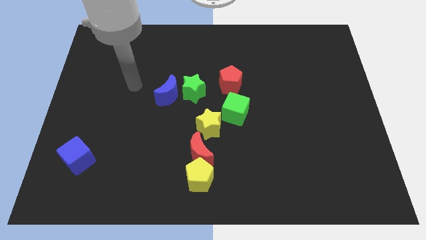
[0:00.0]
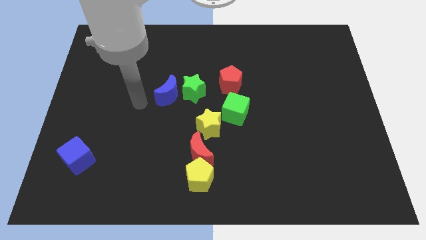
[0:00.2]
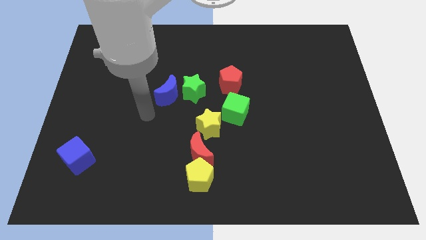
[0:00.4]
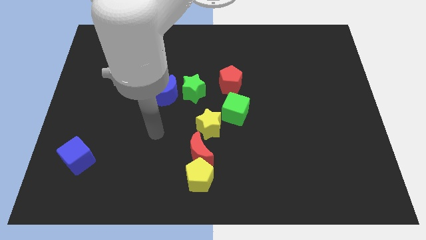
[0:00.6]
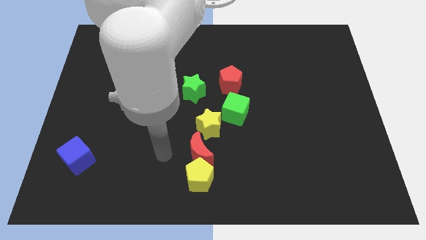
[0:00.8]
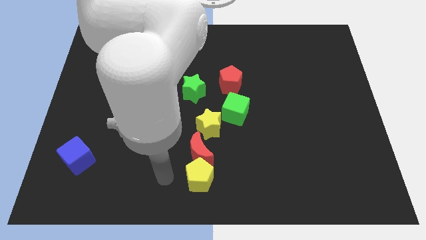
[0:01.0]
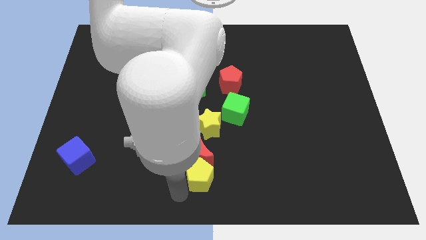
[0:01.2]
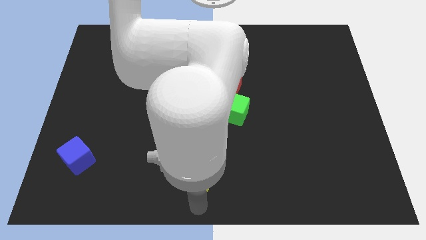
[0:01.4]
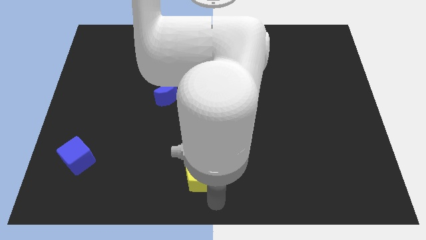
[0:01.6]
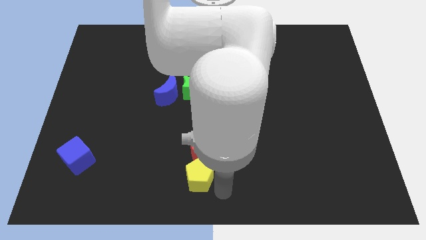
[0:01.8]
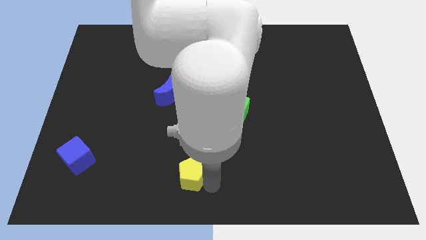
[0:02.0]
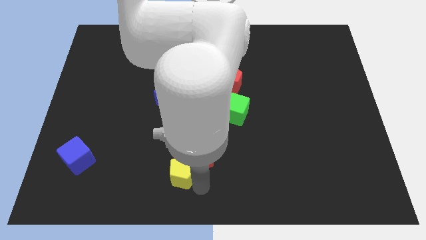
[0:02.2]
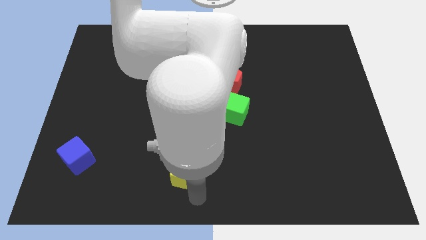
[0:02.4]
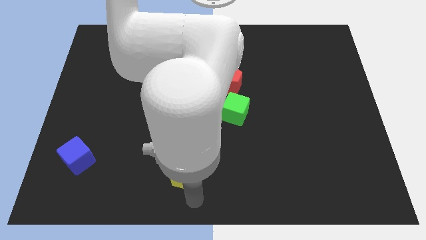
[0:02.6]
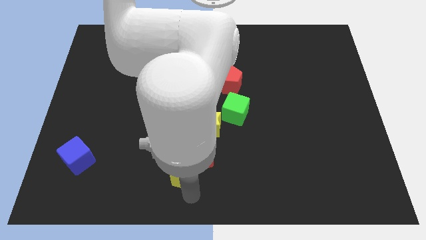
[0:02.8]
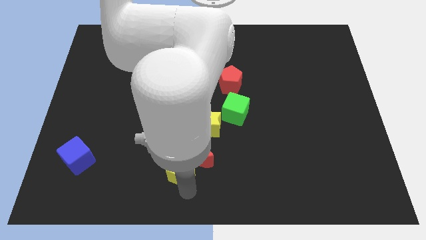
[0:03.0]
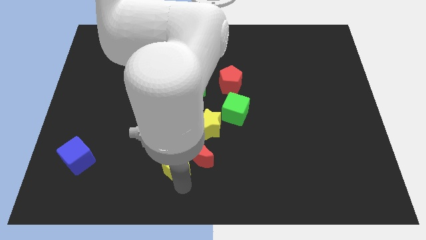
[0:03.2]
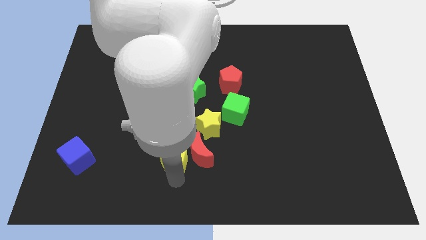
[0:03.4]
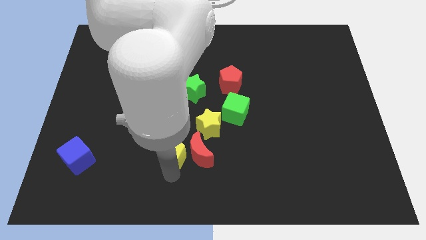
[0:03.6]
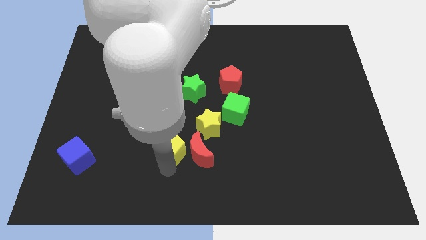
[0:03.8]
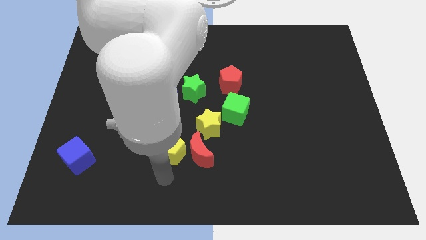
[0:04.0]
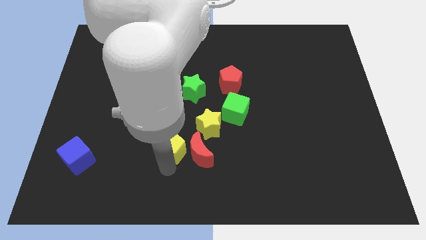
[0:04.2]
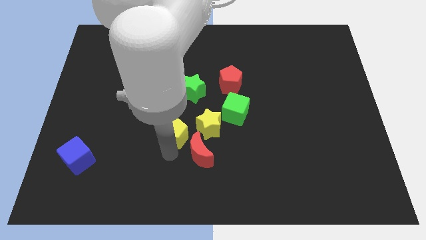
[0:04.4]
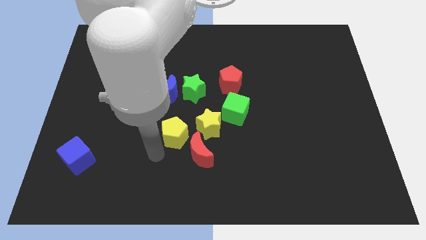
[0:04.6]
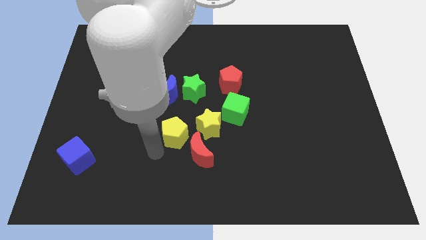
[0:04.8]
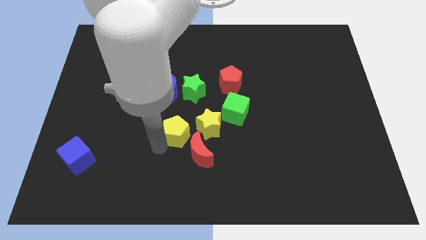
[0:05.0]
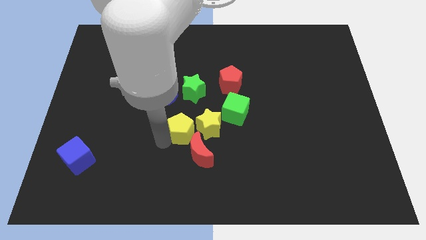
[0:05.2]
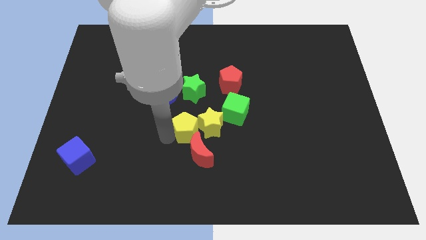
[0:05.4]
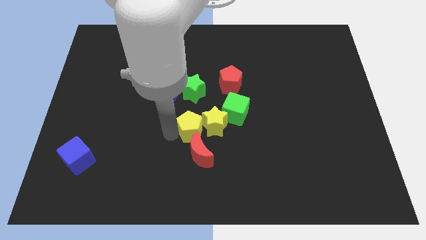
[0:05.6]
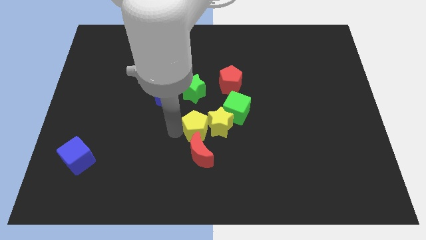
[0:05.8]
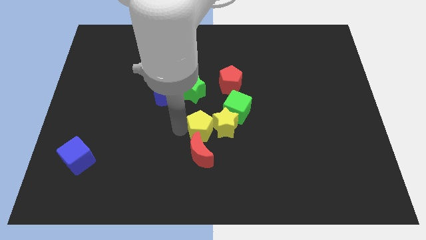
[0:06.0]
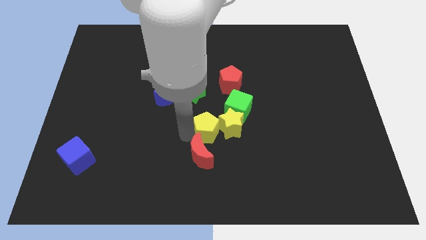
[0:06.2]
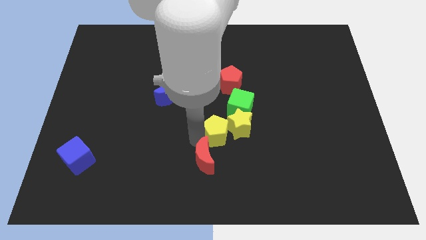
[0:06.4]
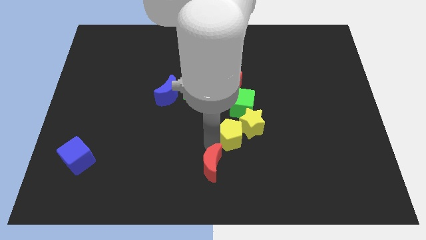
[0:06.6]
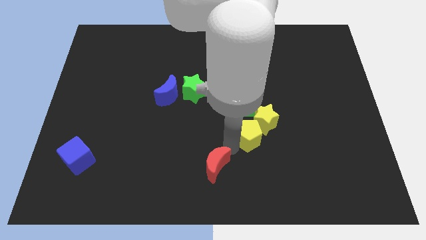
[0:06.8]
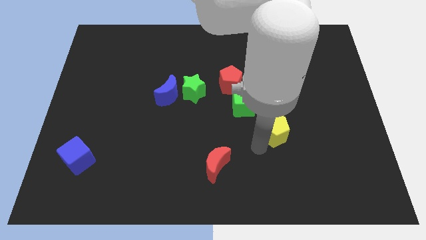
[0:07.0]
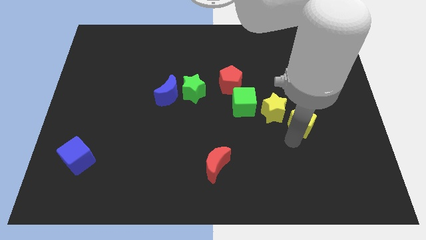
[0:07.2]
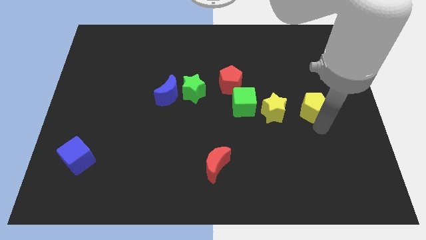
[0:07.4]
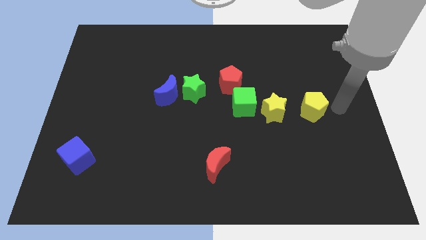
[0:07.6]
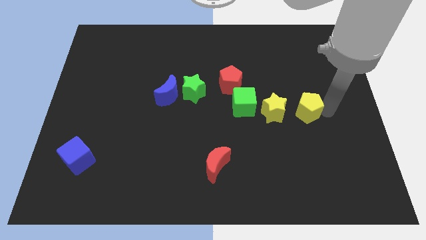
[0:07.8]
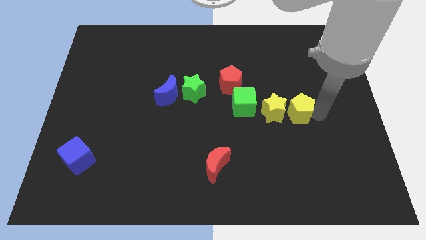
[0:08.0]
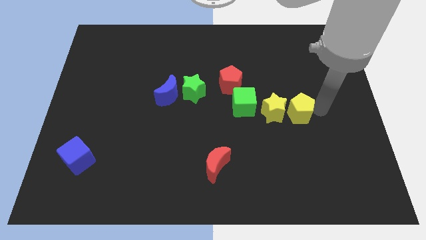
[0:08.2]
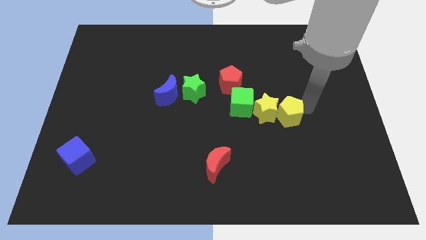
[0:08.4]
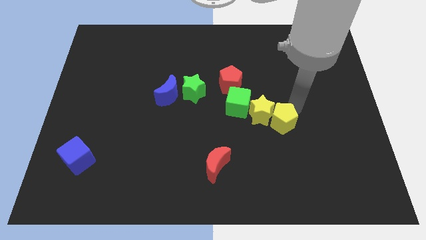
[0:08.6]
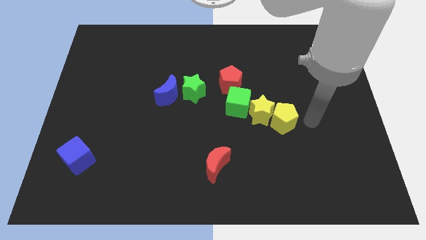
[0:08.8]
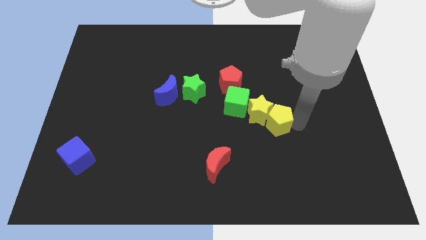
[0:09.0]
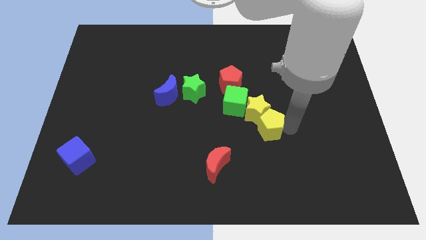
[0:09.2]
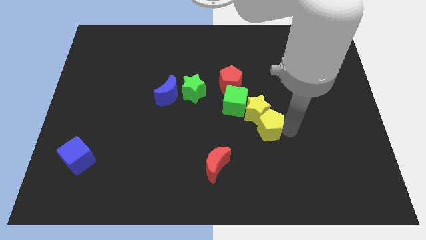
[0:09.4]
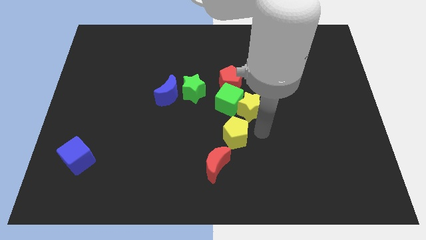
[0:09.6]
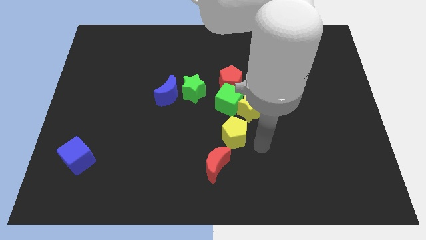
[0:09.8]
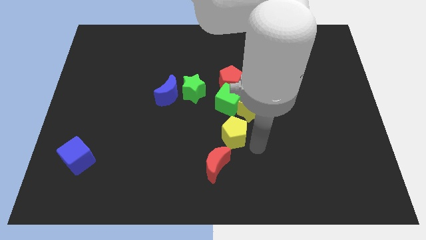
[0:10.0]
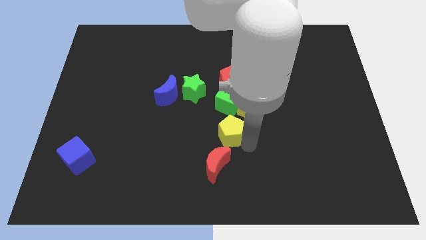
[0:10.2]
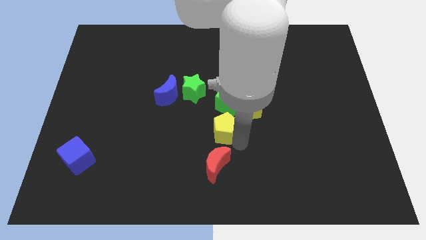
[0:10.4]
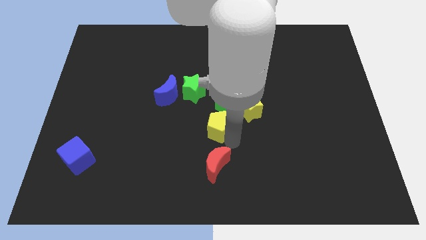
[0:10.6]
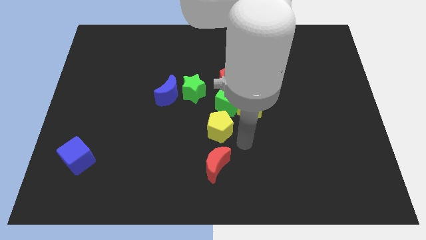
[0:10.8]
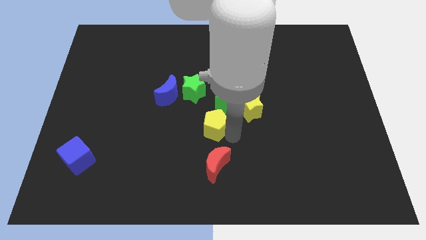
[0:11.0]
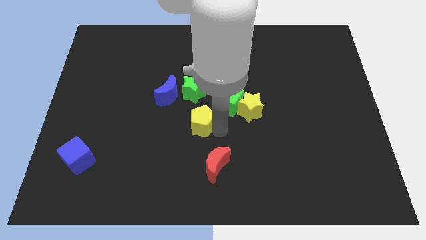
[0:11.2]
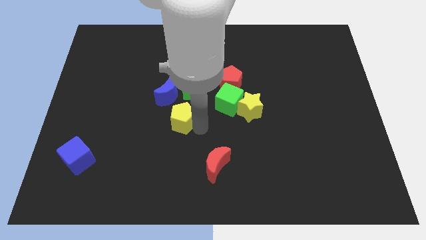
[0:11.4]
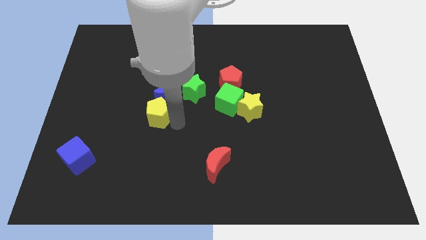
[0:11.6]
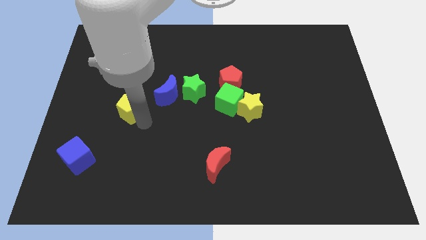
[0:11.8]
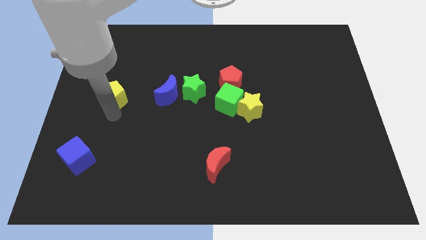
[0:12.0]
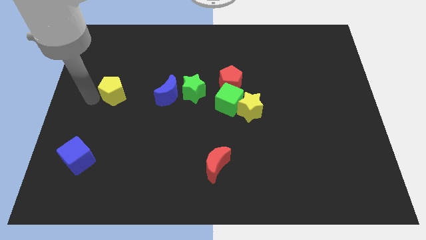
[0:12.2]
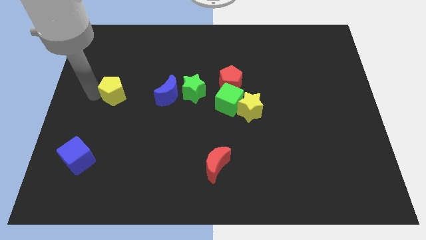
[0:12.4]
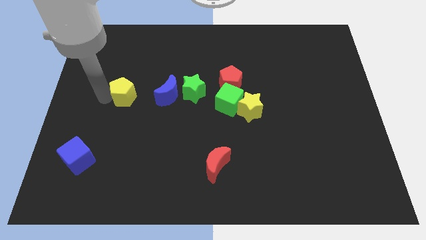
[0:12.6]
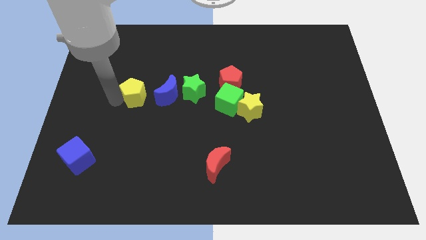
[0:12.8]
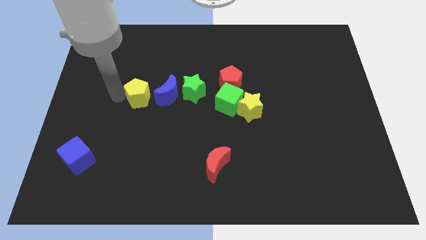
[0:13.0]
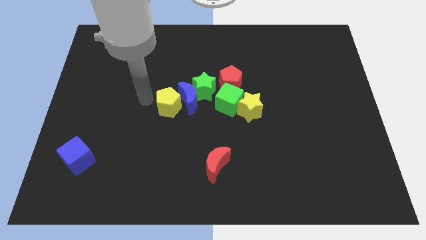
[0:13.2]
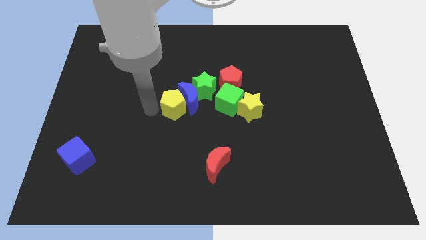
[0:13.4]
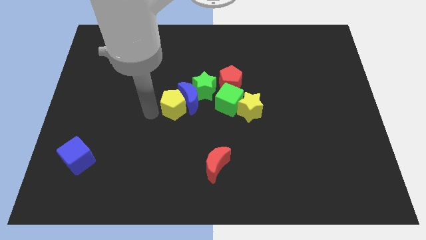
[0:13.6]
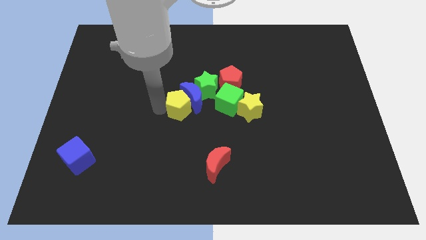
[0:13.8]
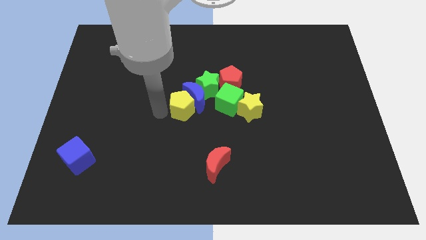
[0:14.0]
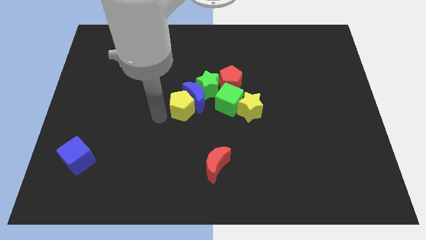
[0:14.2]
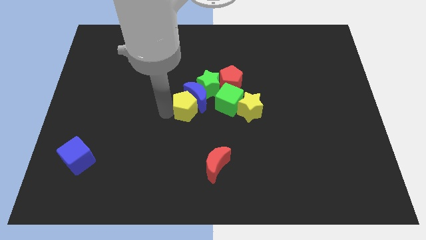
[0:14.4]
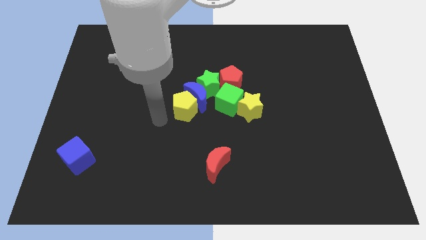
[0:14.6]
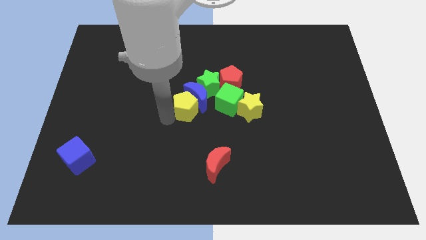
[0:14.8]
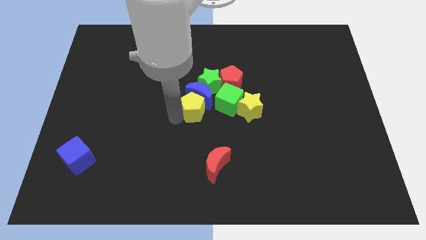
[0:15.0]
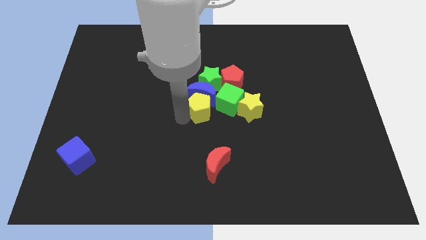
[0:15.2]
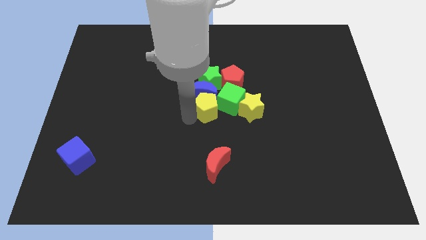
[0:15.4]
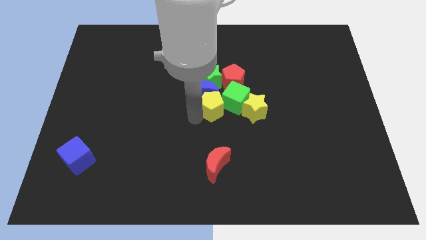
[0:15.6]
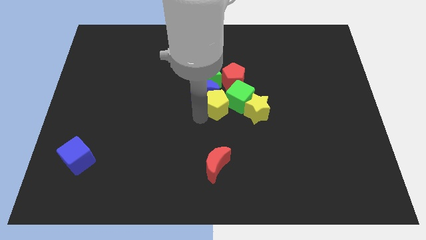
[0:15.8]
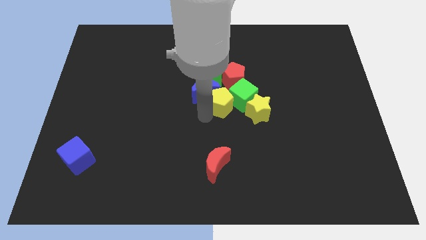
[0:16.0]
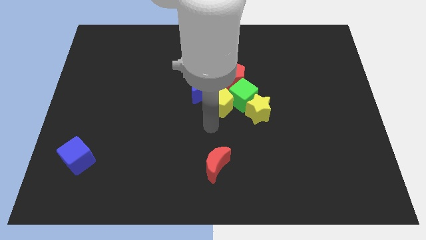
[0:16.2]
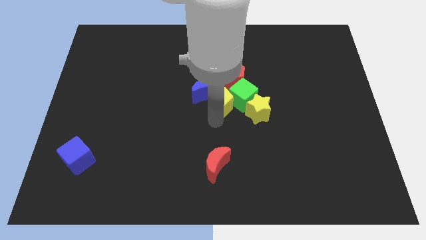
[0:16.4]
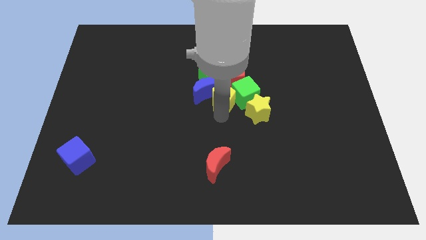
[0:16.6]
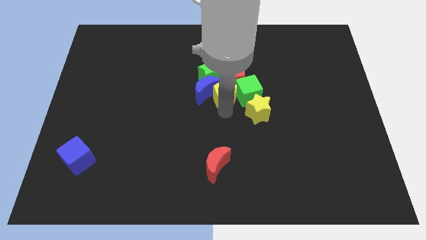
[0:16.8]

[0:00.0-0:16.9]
put the yellow pentagon close to the red pentagon
